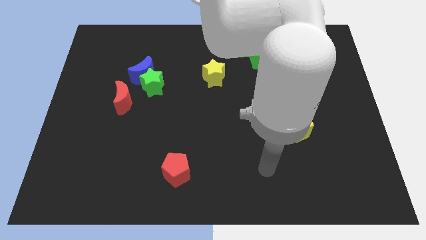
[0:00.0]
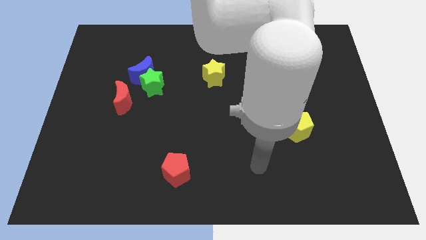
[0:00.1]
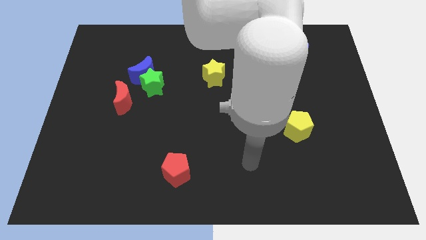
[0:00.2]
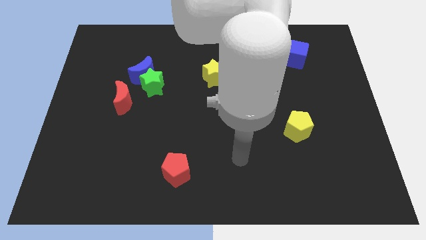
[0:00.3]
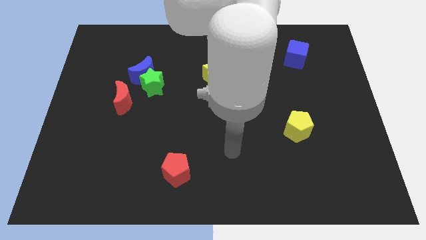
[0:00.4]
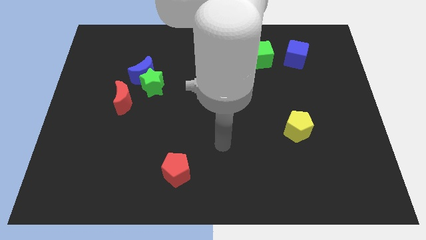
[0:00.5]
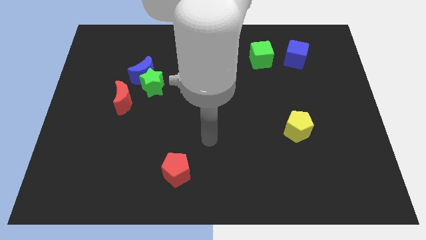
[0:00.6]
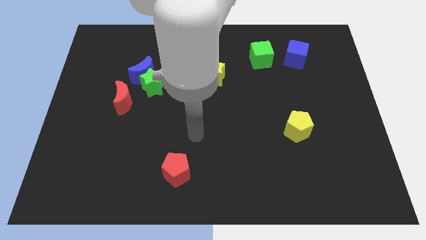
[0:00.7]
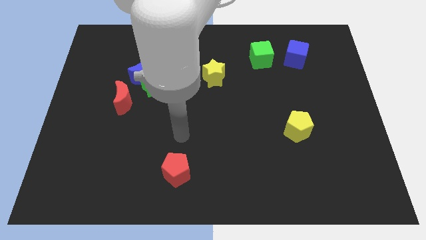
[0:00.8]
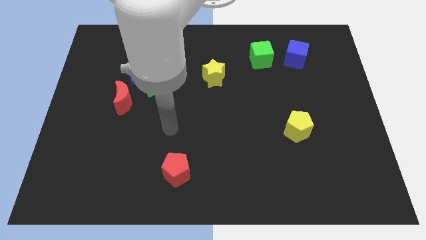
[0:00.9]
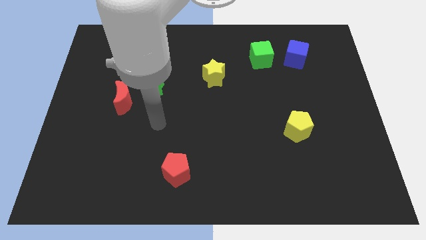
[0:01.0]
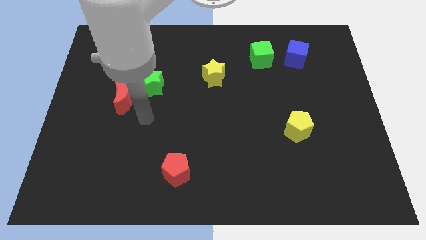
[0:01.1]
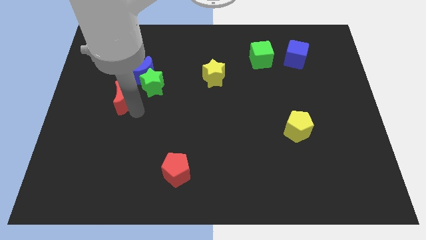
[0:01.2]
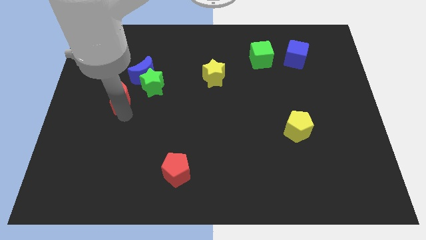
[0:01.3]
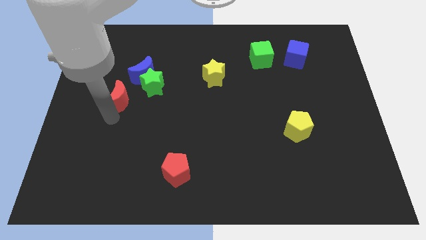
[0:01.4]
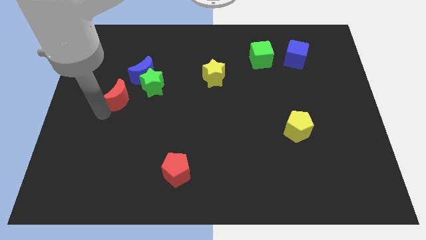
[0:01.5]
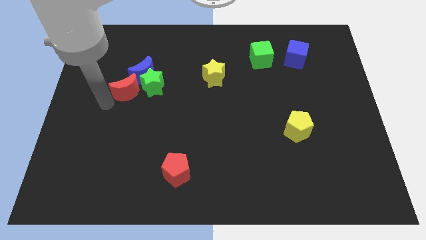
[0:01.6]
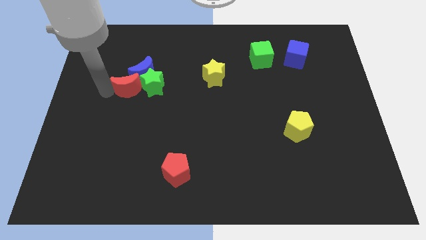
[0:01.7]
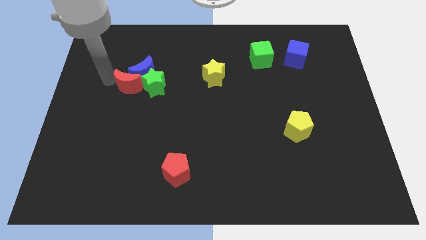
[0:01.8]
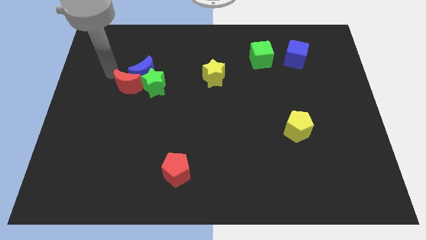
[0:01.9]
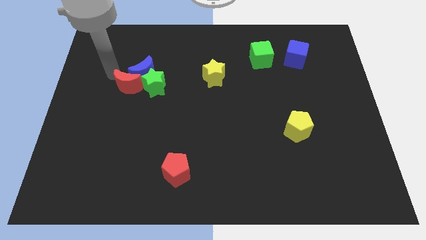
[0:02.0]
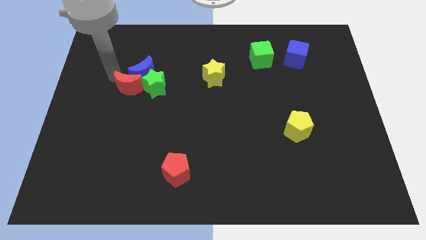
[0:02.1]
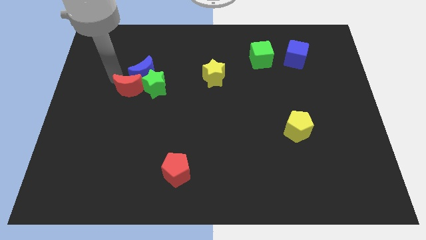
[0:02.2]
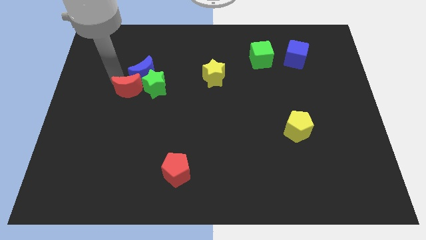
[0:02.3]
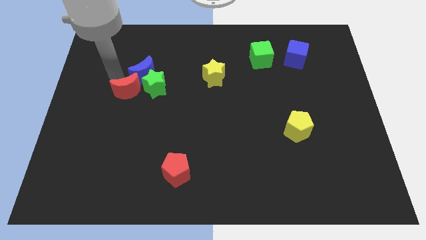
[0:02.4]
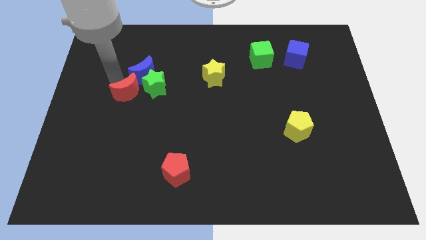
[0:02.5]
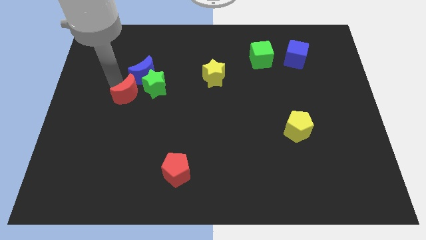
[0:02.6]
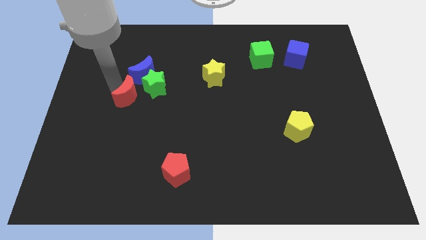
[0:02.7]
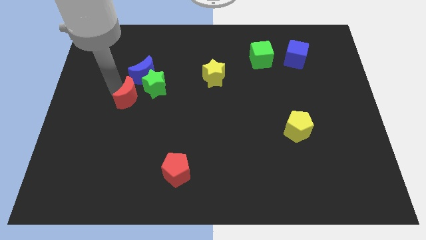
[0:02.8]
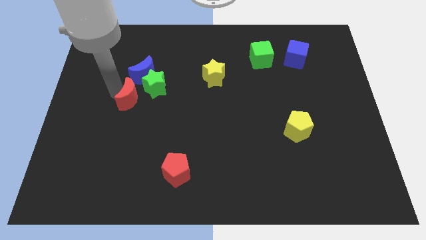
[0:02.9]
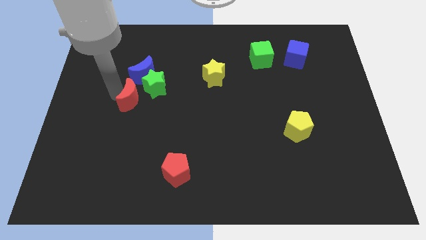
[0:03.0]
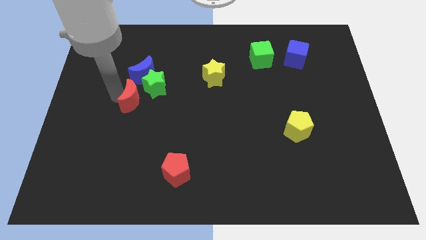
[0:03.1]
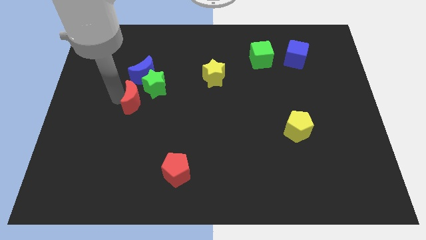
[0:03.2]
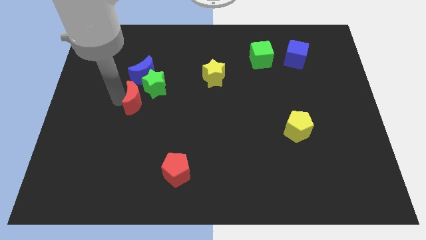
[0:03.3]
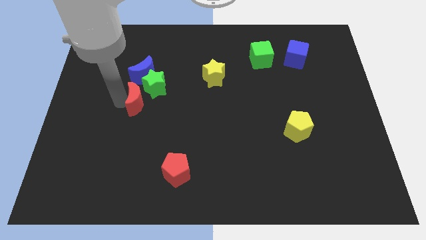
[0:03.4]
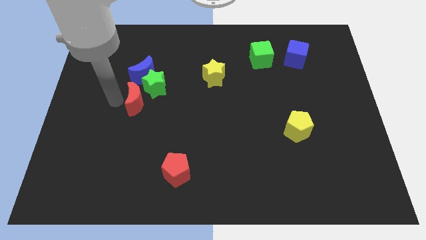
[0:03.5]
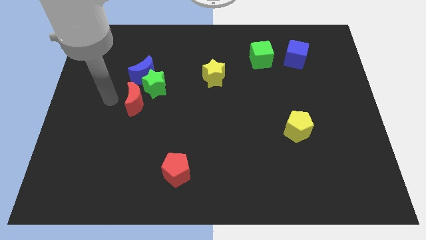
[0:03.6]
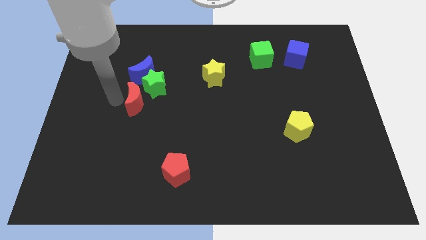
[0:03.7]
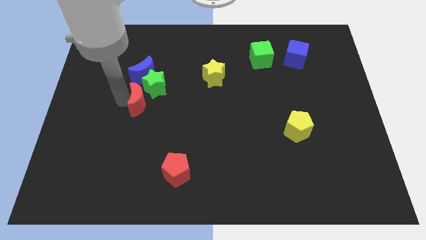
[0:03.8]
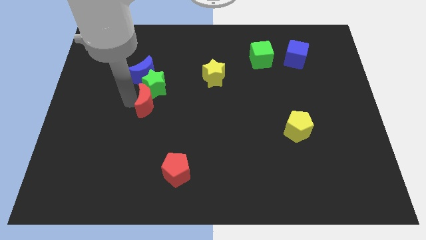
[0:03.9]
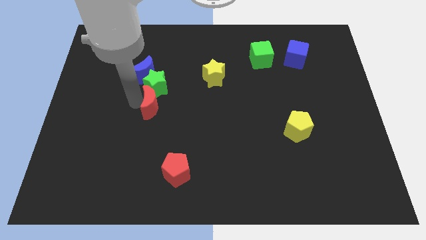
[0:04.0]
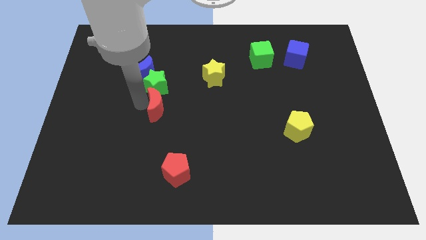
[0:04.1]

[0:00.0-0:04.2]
push the red moon slightly right

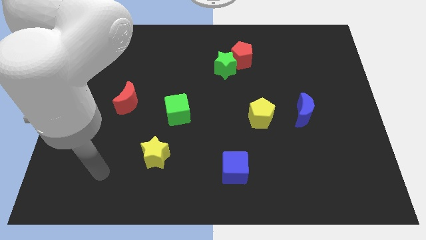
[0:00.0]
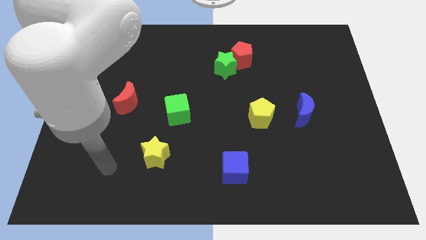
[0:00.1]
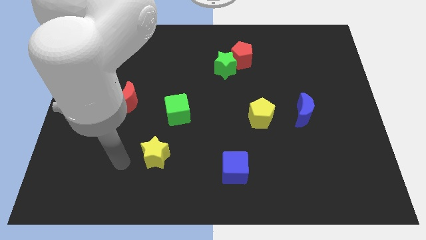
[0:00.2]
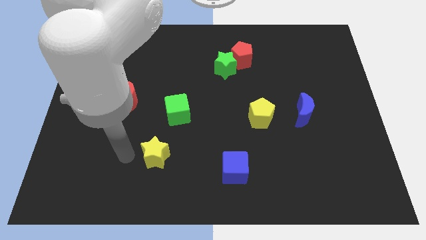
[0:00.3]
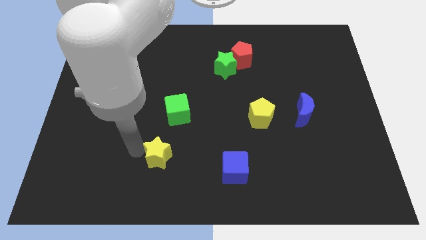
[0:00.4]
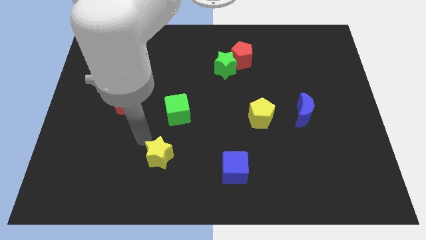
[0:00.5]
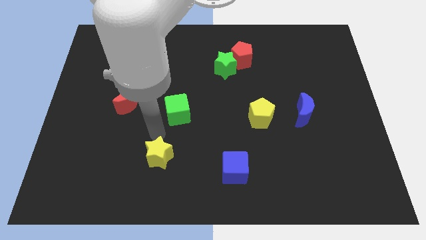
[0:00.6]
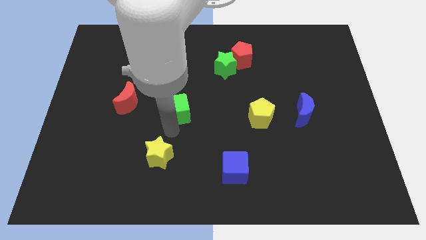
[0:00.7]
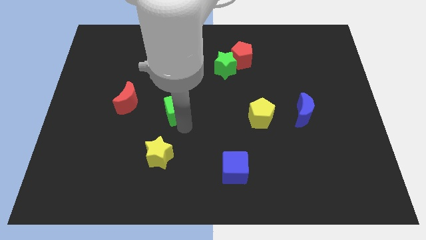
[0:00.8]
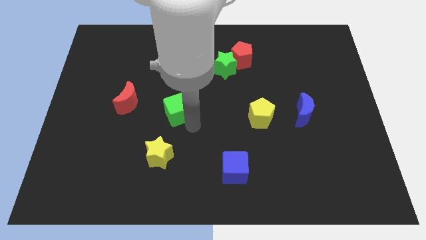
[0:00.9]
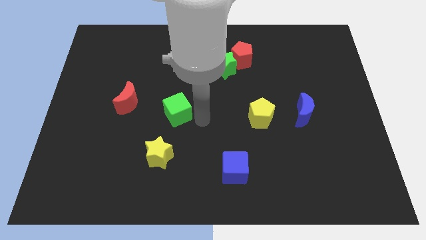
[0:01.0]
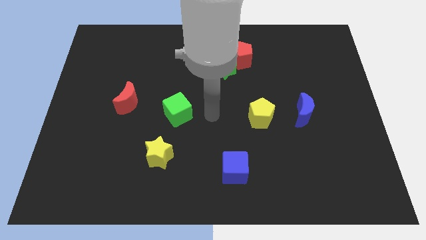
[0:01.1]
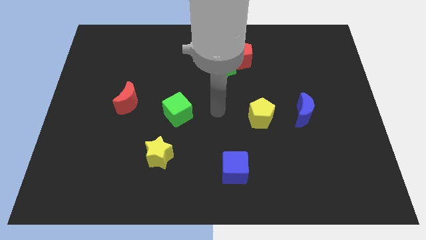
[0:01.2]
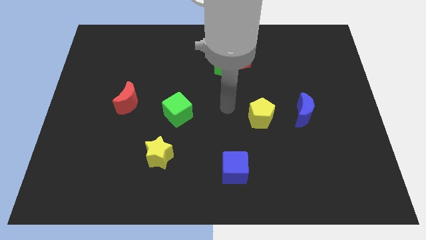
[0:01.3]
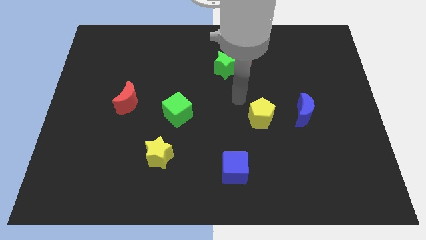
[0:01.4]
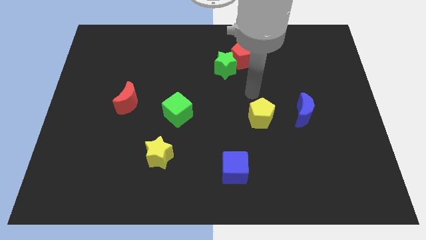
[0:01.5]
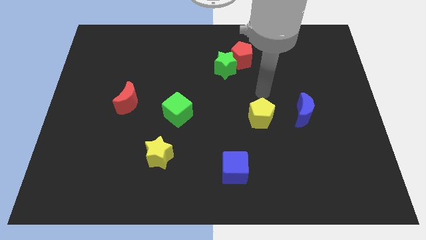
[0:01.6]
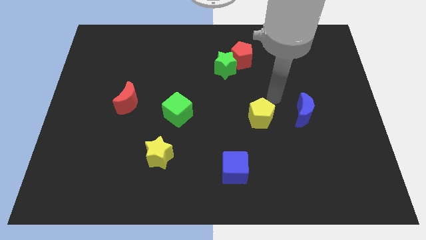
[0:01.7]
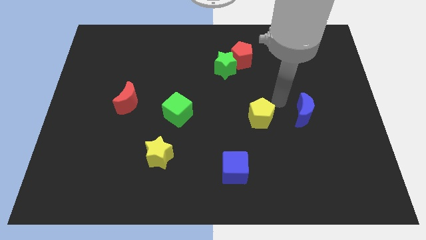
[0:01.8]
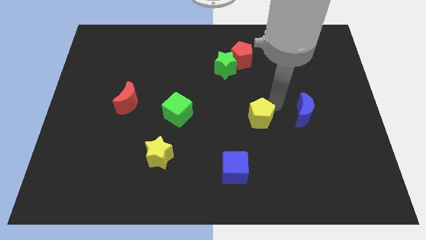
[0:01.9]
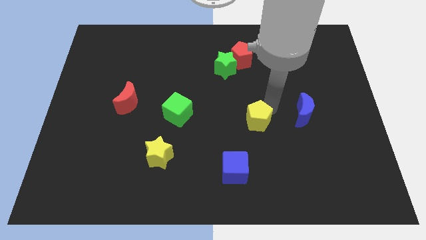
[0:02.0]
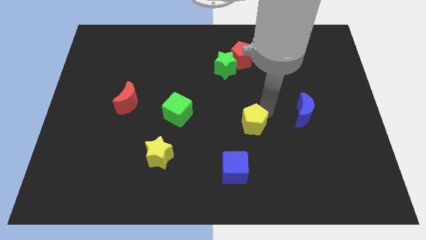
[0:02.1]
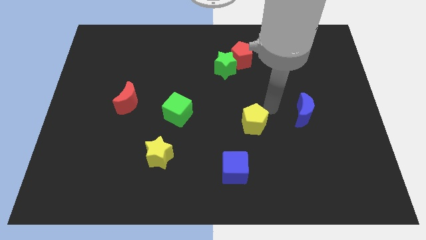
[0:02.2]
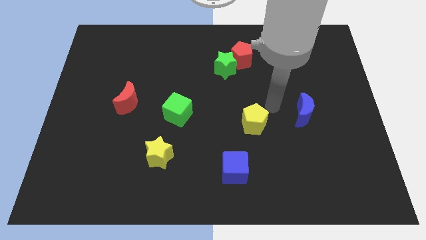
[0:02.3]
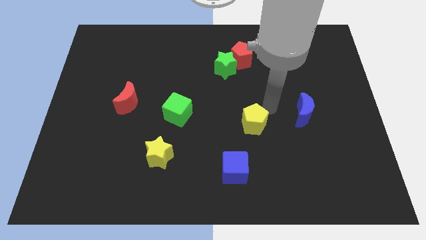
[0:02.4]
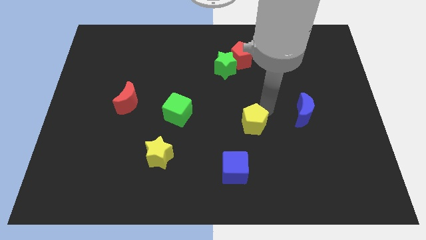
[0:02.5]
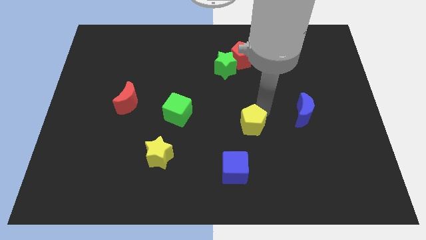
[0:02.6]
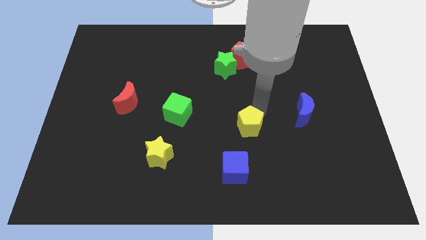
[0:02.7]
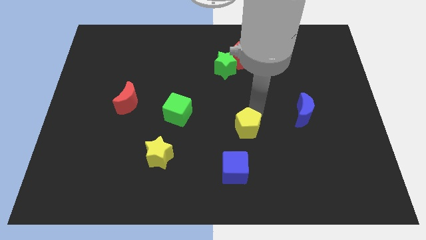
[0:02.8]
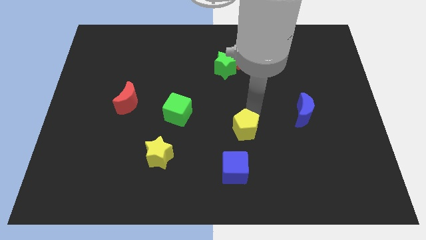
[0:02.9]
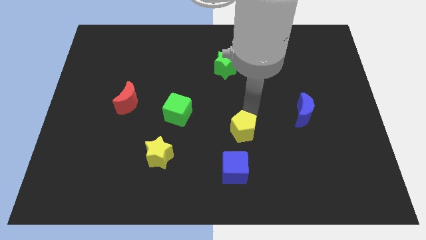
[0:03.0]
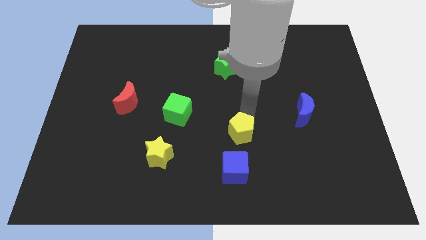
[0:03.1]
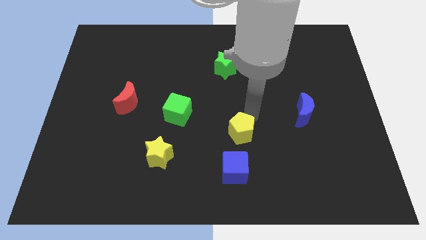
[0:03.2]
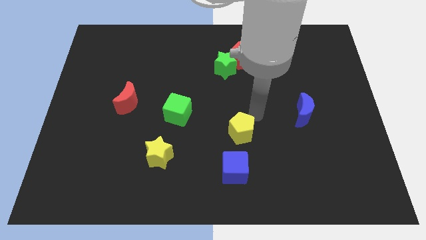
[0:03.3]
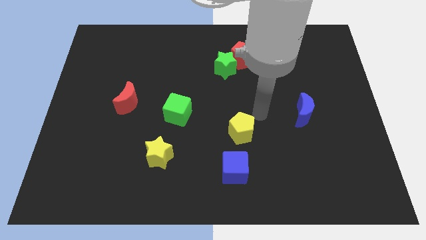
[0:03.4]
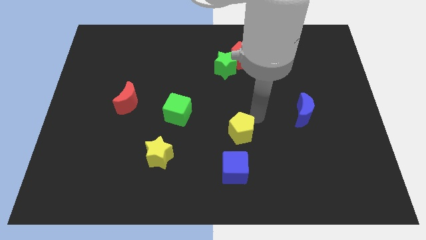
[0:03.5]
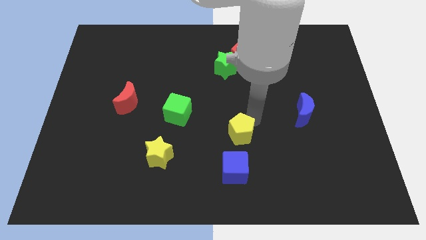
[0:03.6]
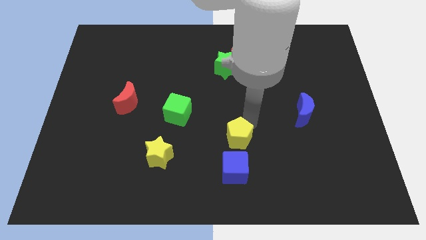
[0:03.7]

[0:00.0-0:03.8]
slide the yellow pentagon slightly down and then left
